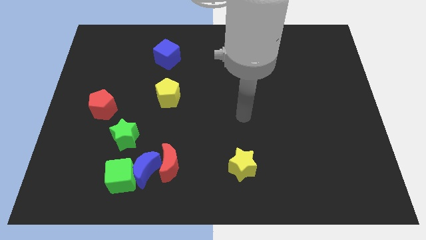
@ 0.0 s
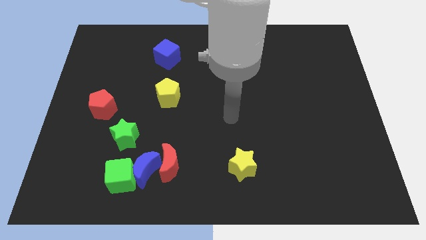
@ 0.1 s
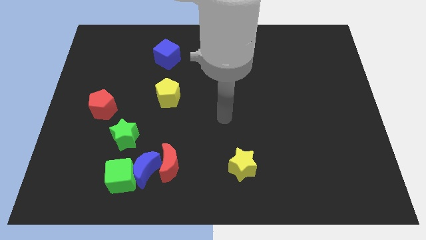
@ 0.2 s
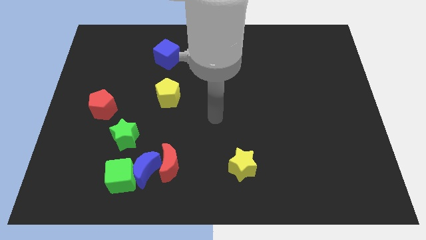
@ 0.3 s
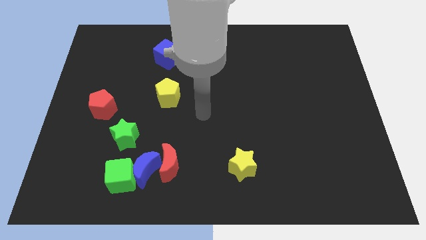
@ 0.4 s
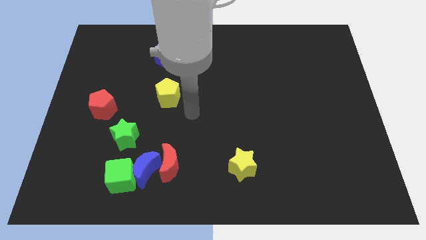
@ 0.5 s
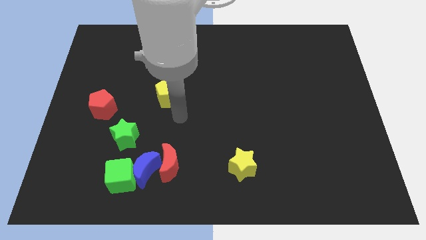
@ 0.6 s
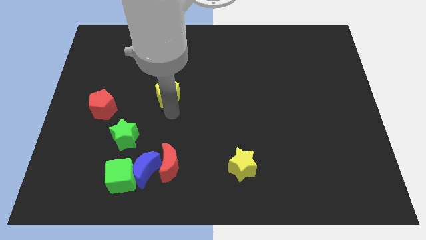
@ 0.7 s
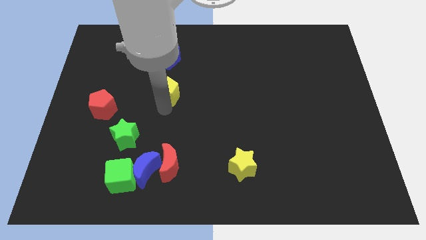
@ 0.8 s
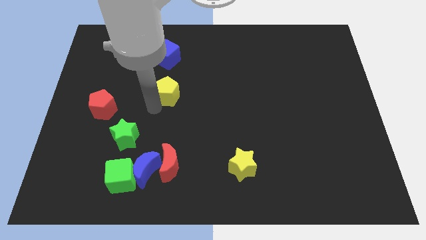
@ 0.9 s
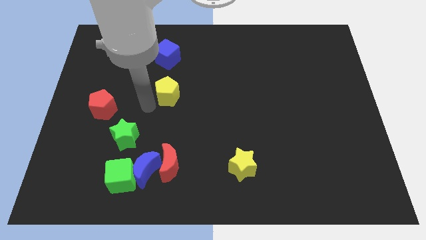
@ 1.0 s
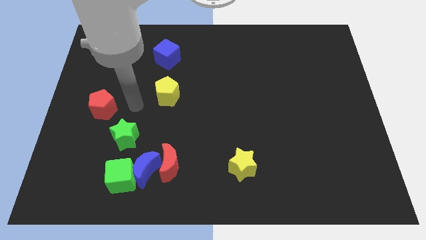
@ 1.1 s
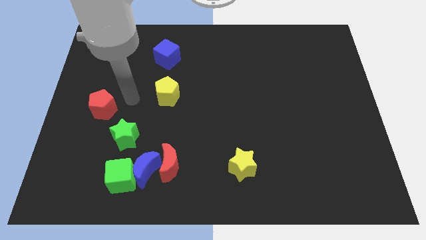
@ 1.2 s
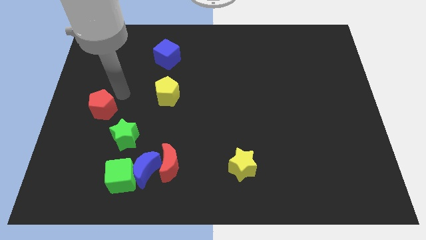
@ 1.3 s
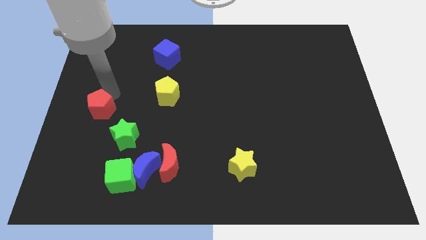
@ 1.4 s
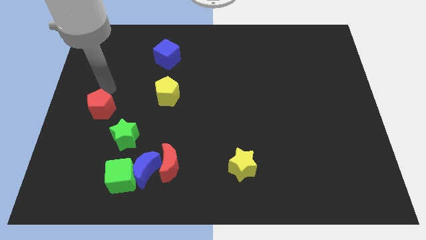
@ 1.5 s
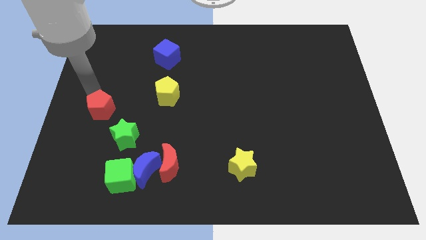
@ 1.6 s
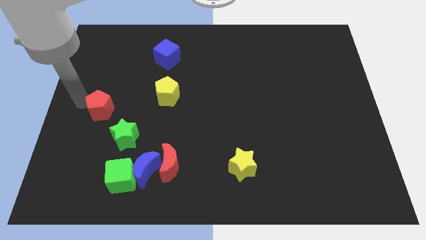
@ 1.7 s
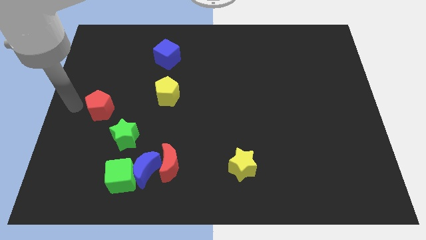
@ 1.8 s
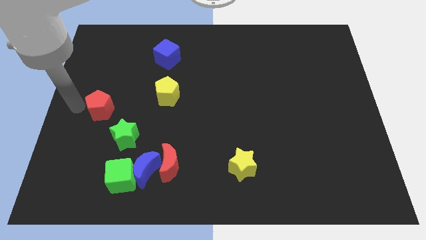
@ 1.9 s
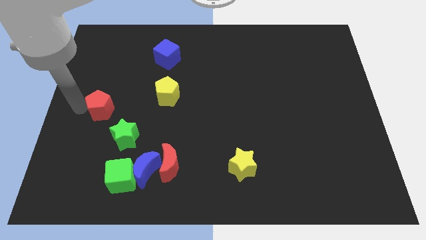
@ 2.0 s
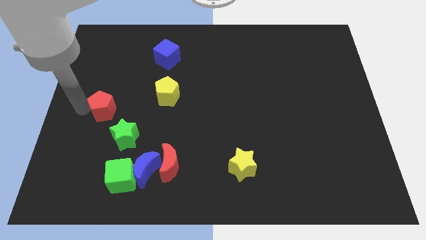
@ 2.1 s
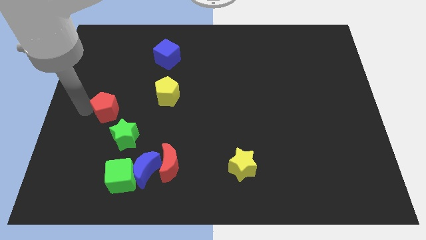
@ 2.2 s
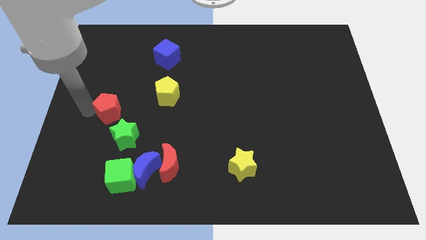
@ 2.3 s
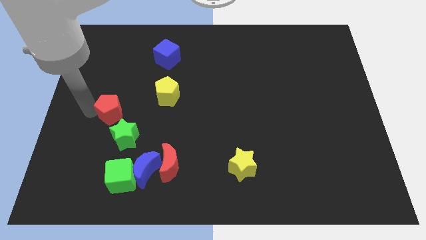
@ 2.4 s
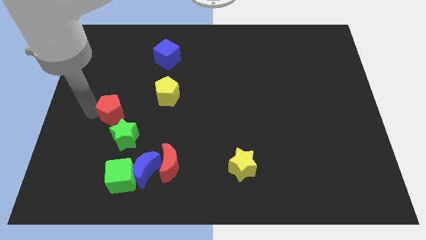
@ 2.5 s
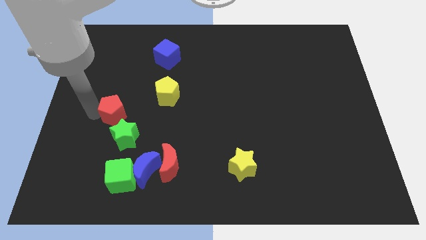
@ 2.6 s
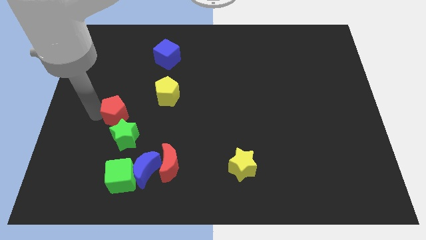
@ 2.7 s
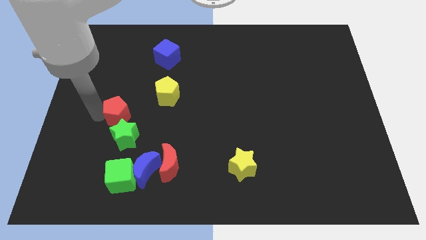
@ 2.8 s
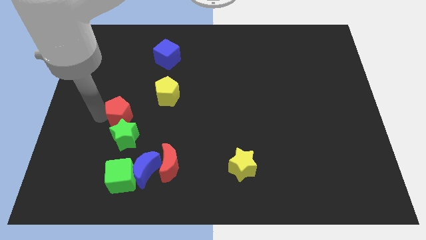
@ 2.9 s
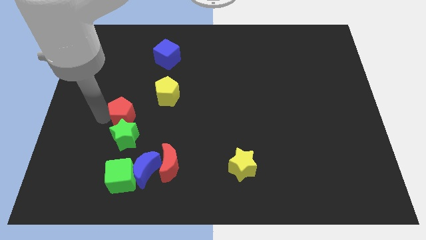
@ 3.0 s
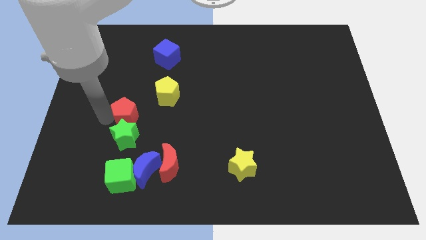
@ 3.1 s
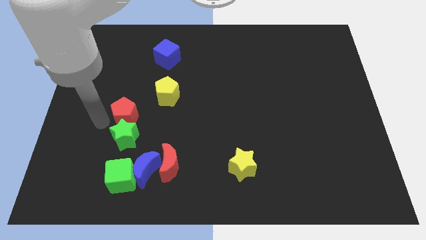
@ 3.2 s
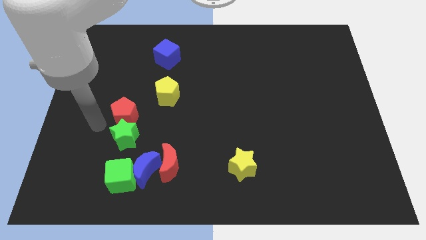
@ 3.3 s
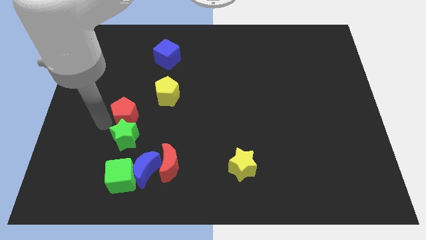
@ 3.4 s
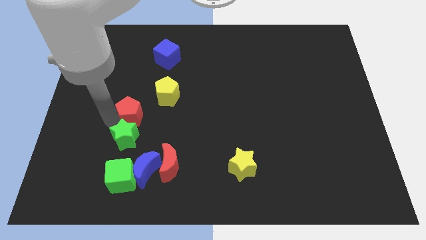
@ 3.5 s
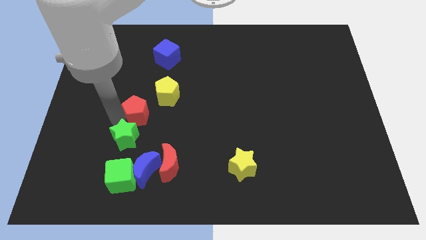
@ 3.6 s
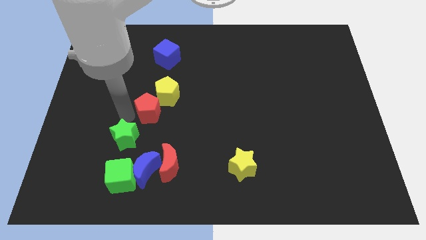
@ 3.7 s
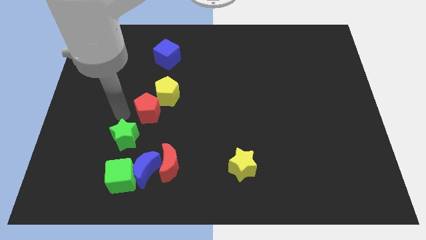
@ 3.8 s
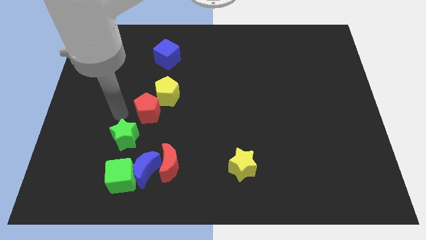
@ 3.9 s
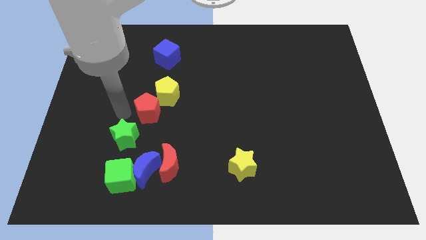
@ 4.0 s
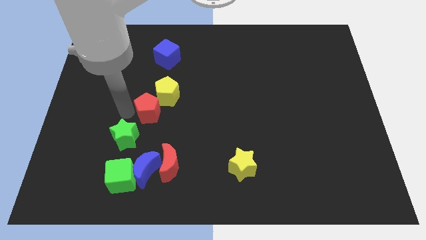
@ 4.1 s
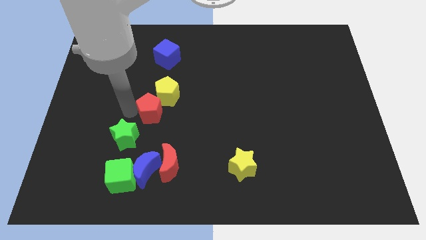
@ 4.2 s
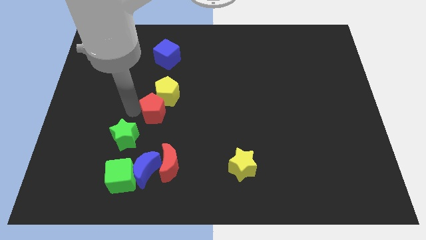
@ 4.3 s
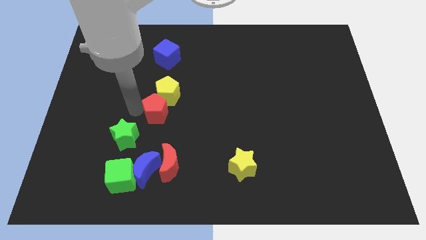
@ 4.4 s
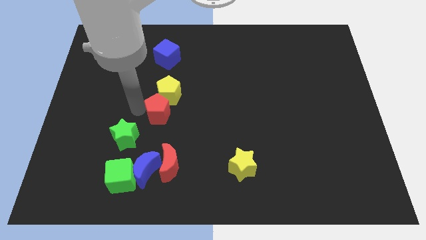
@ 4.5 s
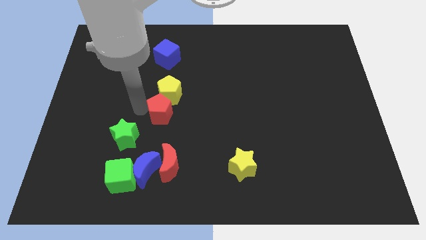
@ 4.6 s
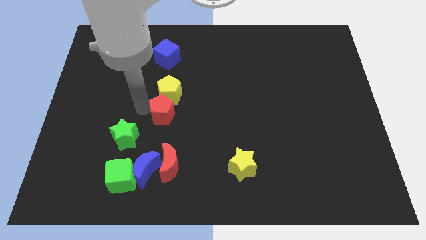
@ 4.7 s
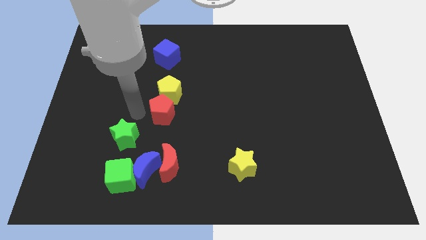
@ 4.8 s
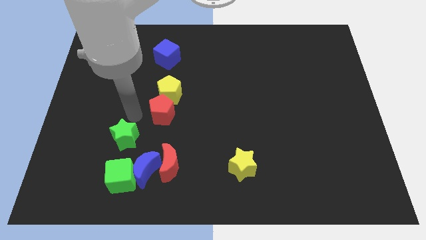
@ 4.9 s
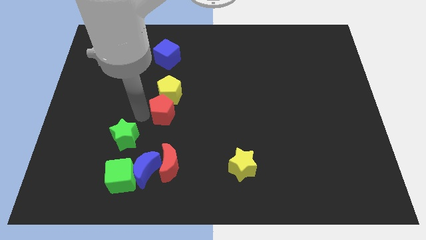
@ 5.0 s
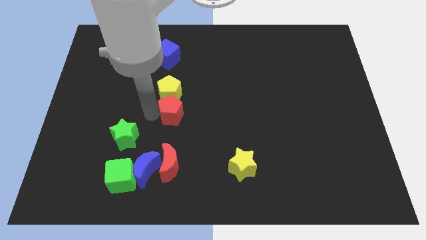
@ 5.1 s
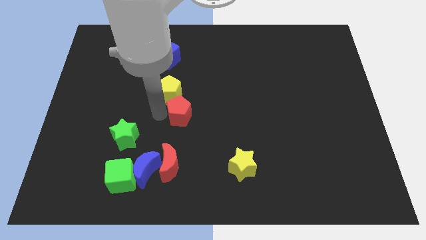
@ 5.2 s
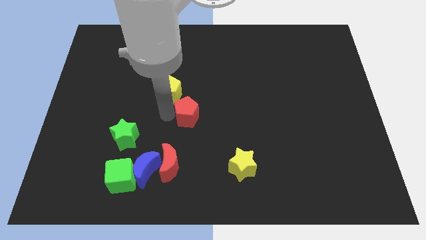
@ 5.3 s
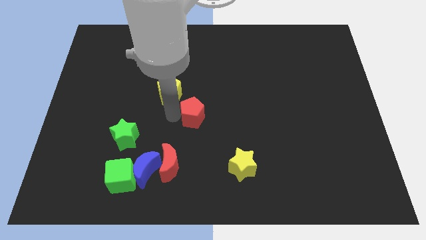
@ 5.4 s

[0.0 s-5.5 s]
slide the red pentagon right

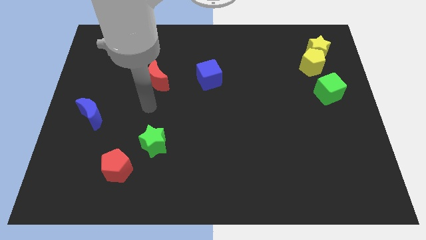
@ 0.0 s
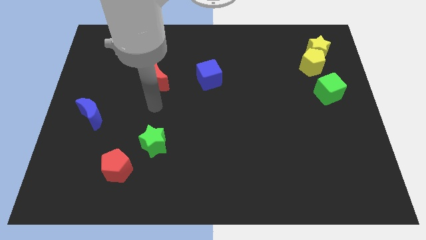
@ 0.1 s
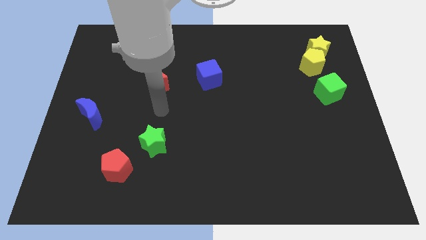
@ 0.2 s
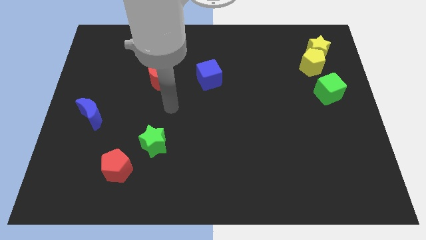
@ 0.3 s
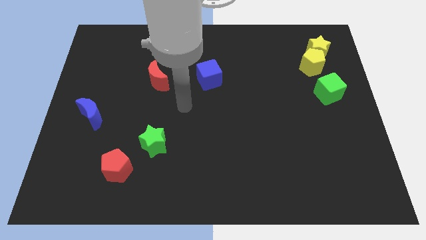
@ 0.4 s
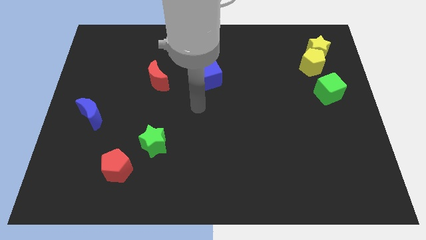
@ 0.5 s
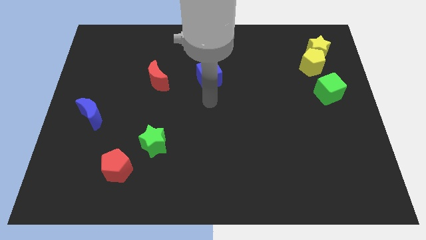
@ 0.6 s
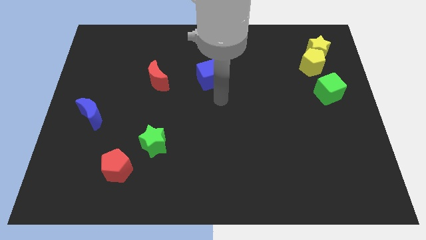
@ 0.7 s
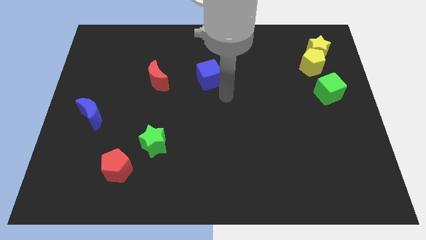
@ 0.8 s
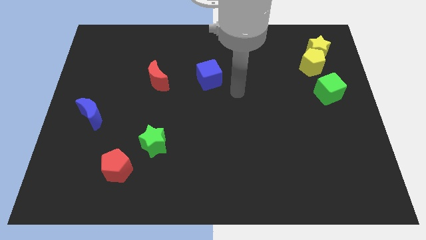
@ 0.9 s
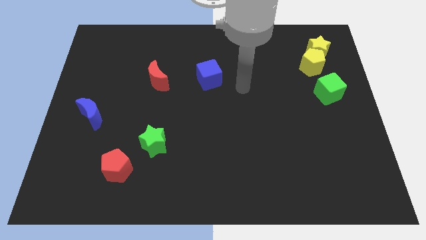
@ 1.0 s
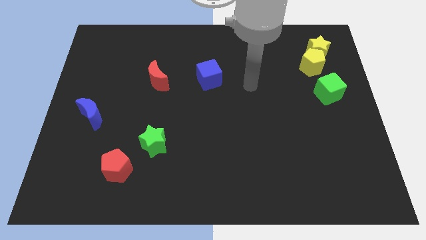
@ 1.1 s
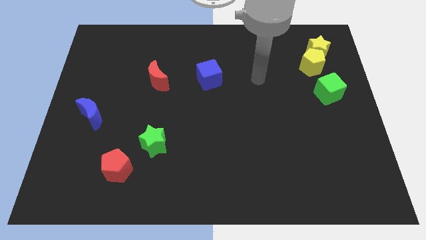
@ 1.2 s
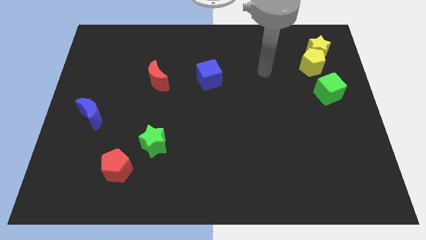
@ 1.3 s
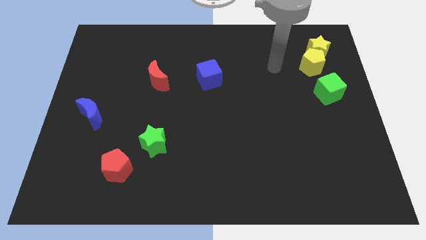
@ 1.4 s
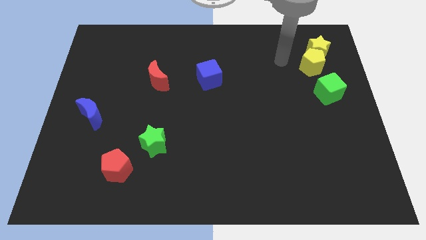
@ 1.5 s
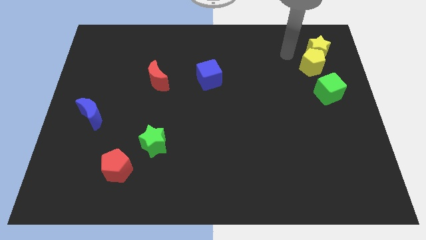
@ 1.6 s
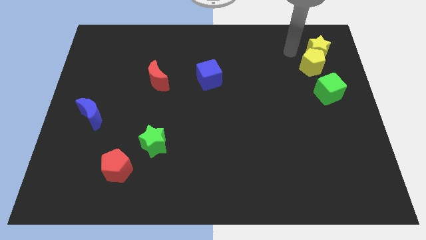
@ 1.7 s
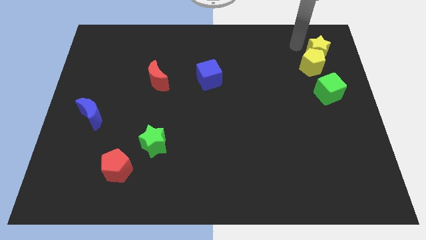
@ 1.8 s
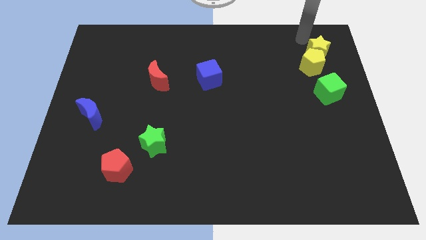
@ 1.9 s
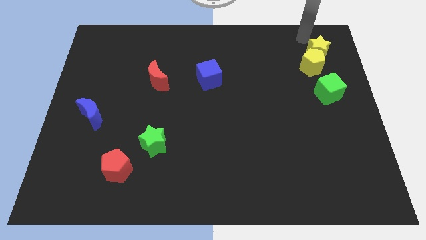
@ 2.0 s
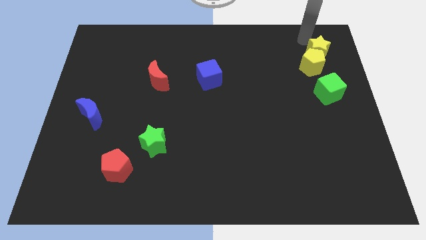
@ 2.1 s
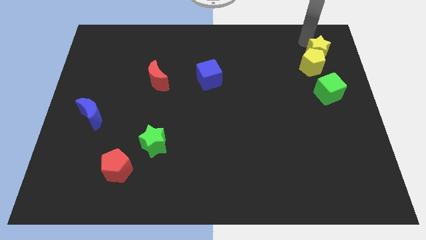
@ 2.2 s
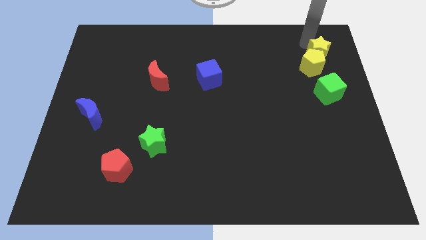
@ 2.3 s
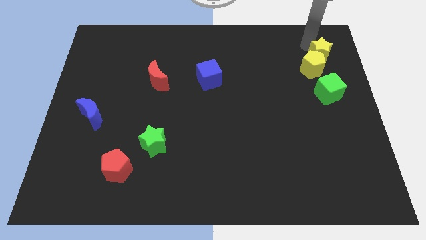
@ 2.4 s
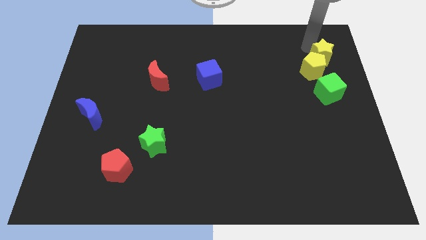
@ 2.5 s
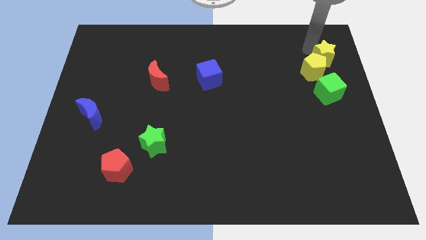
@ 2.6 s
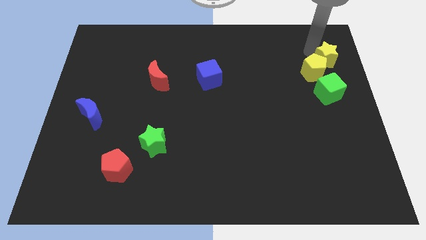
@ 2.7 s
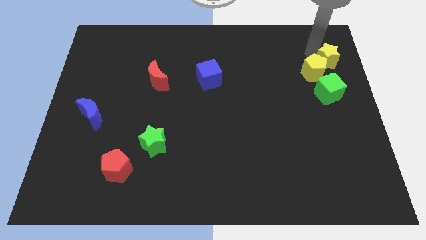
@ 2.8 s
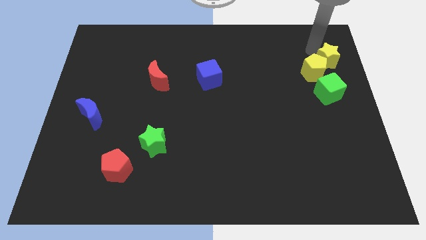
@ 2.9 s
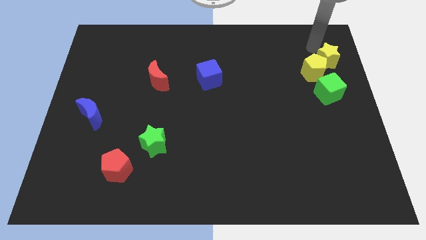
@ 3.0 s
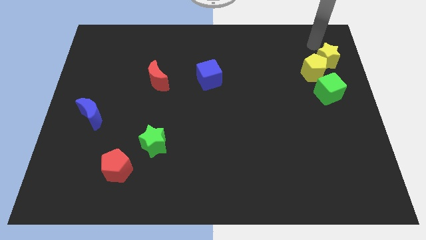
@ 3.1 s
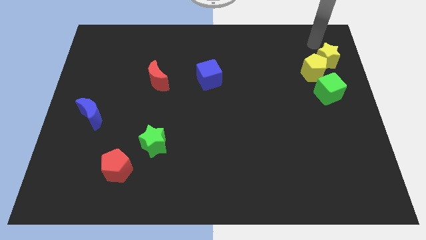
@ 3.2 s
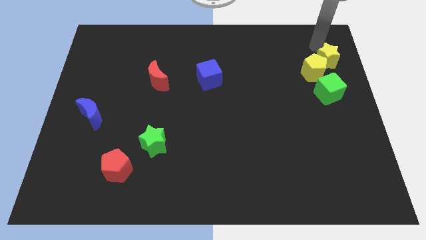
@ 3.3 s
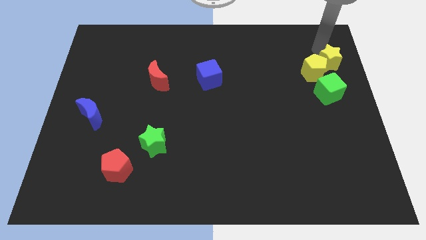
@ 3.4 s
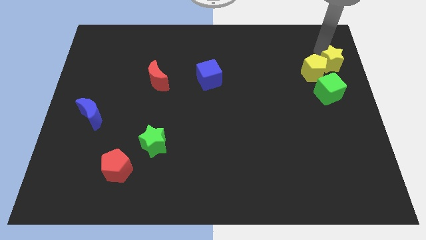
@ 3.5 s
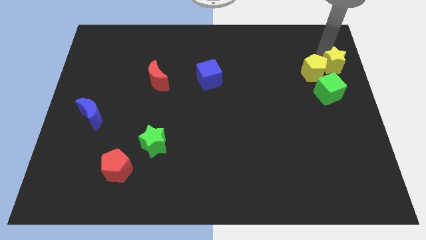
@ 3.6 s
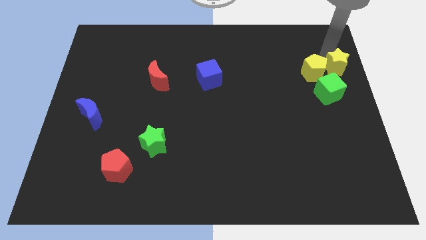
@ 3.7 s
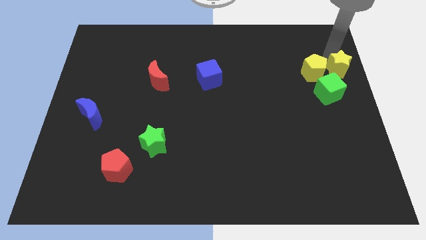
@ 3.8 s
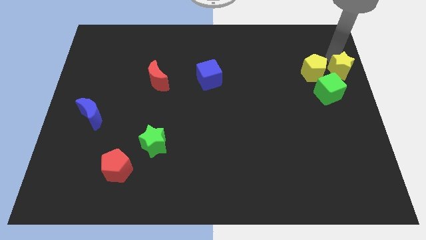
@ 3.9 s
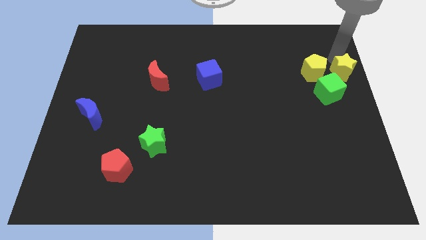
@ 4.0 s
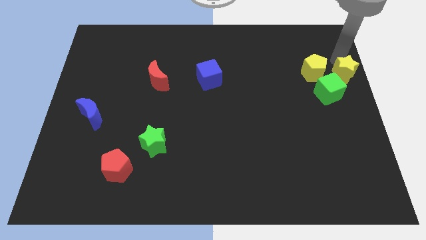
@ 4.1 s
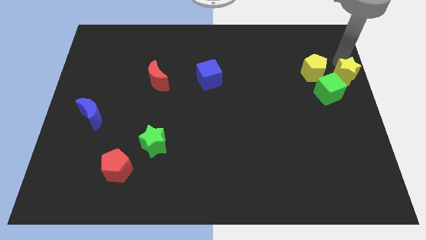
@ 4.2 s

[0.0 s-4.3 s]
slightly push the yellow star downwards
